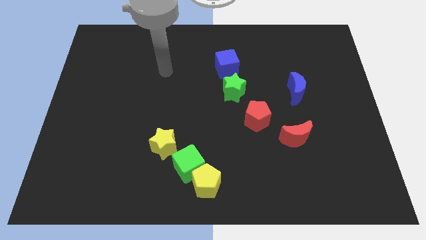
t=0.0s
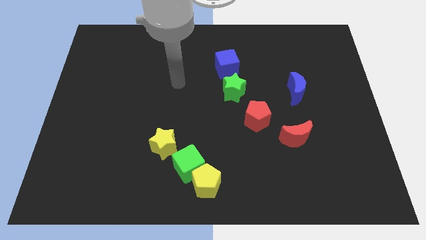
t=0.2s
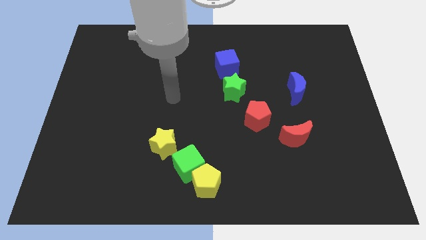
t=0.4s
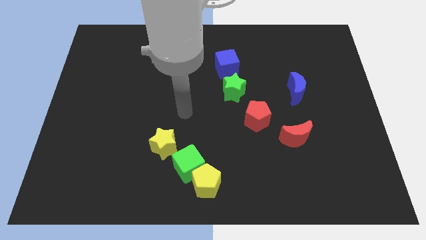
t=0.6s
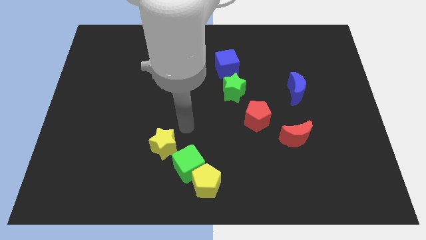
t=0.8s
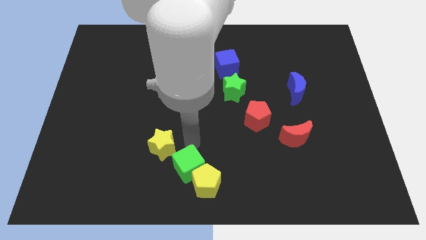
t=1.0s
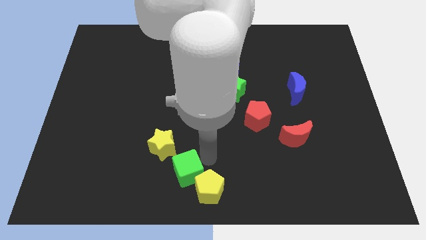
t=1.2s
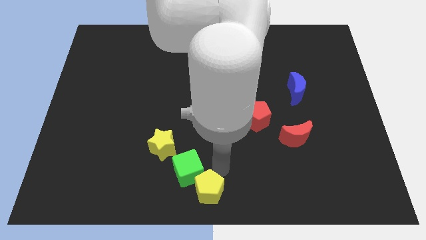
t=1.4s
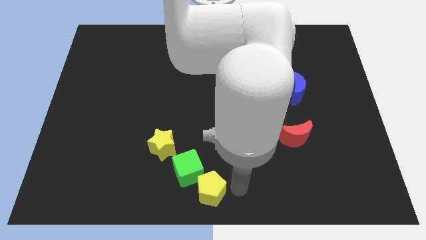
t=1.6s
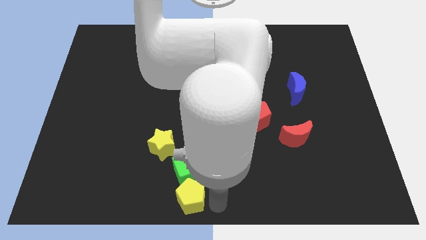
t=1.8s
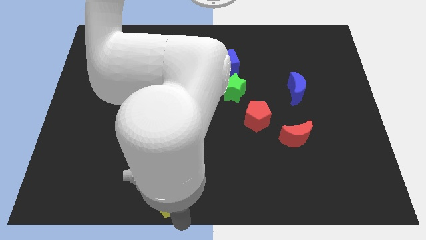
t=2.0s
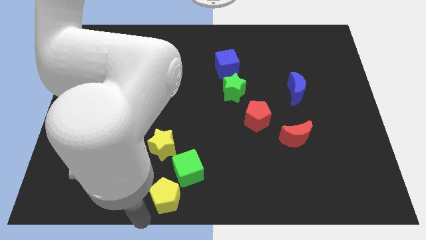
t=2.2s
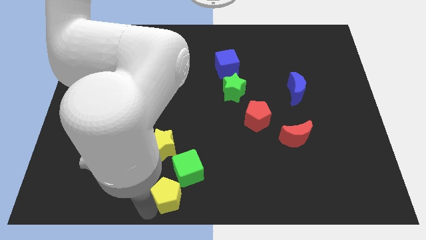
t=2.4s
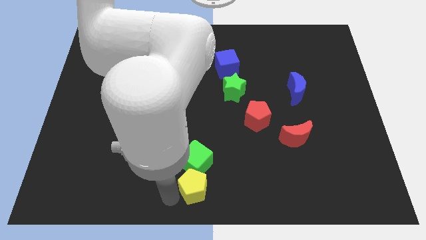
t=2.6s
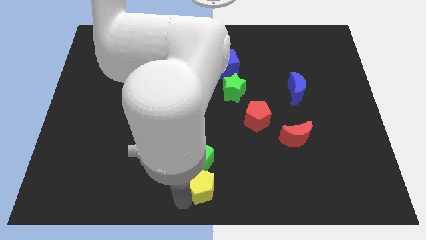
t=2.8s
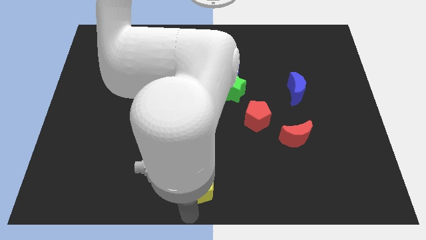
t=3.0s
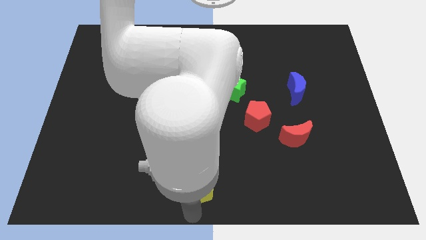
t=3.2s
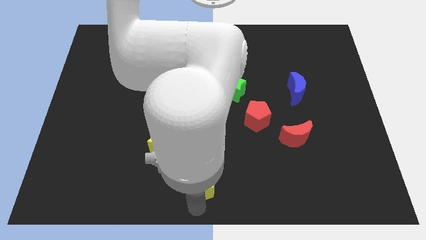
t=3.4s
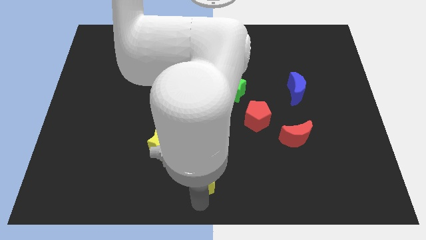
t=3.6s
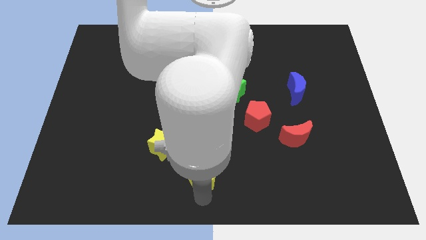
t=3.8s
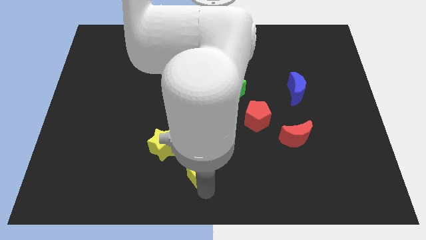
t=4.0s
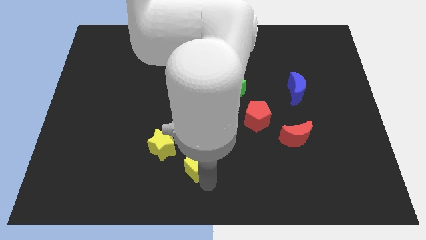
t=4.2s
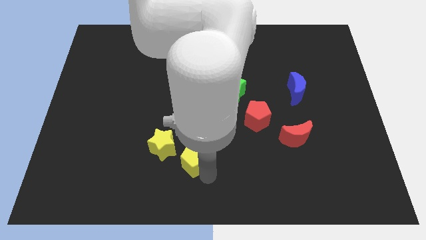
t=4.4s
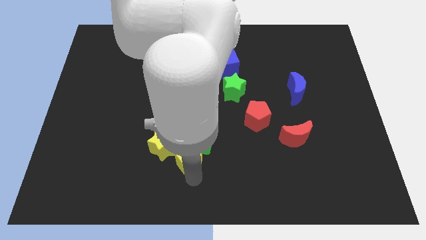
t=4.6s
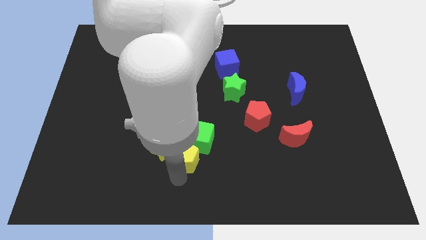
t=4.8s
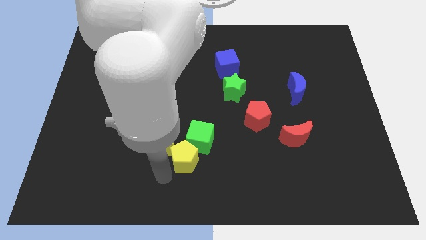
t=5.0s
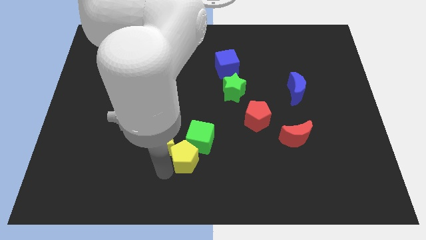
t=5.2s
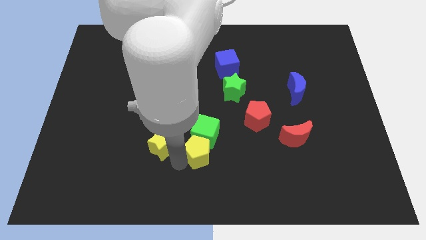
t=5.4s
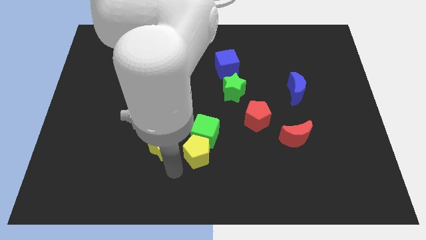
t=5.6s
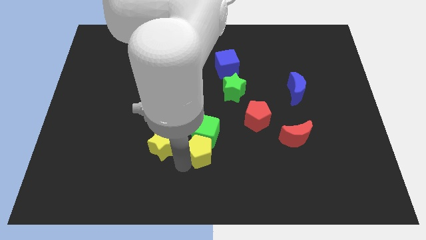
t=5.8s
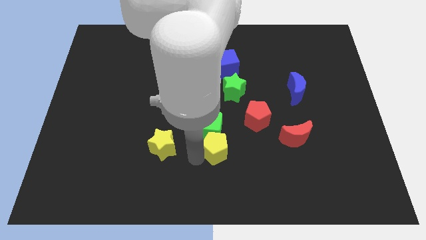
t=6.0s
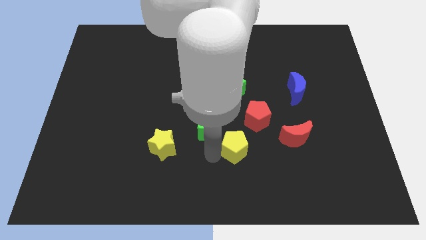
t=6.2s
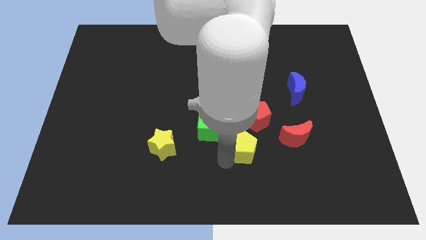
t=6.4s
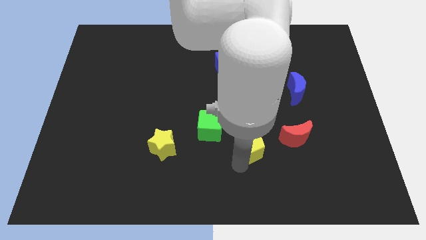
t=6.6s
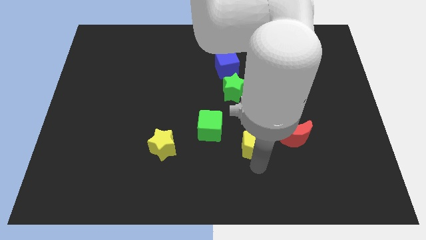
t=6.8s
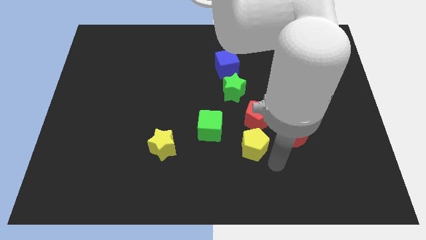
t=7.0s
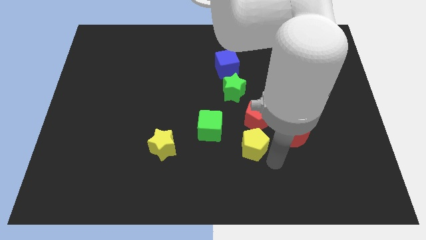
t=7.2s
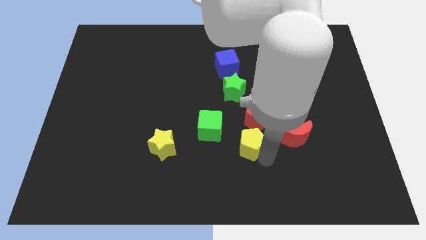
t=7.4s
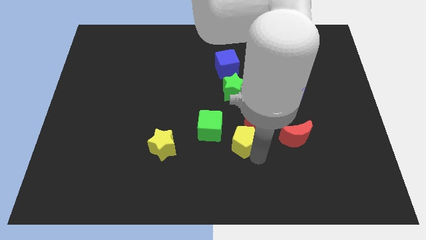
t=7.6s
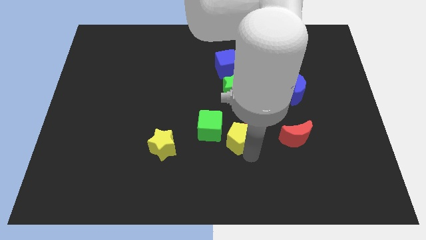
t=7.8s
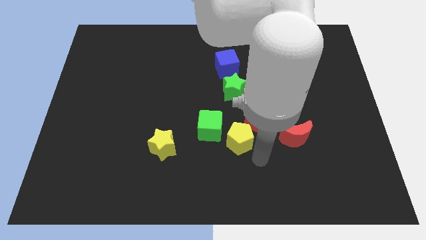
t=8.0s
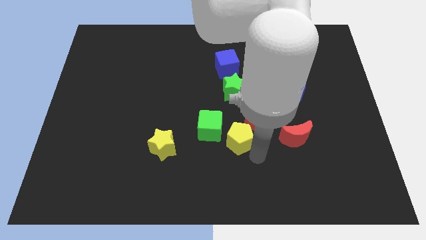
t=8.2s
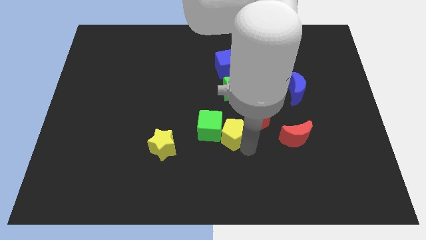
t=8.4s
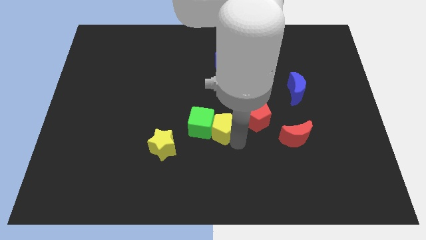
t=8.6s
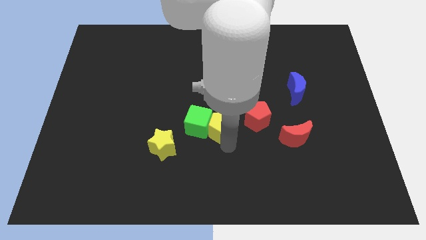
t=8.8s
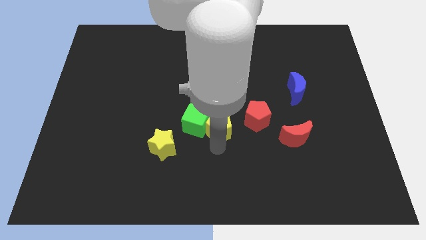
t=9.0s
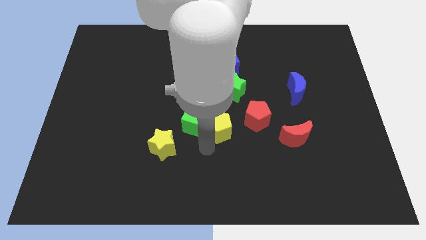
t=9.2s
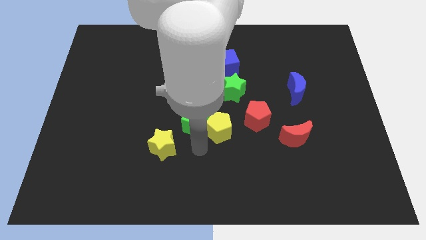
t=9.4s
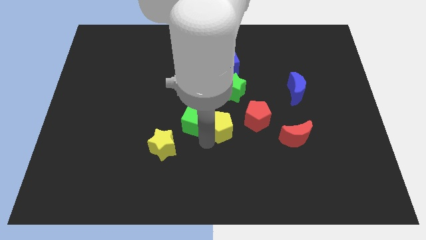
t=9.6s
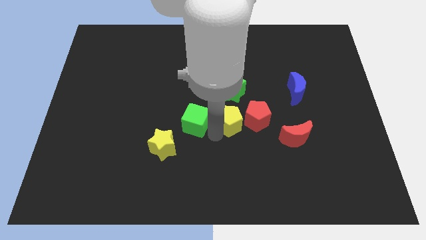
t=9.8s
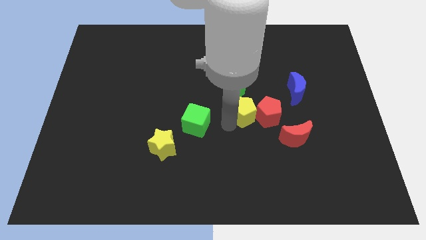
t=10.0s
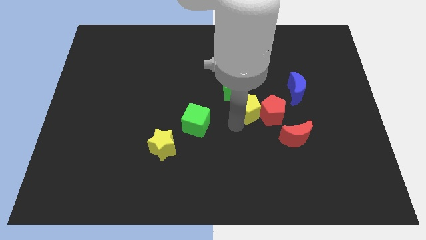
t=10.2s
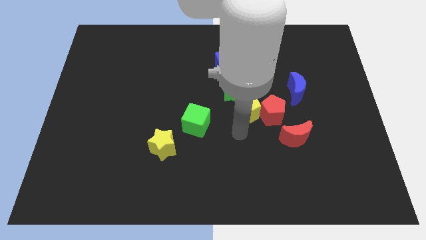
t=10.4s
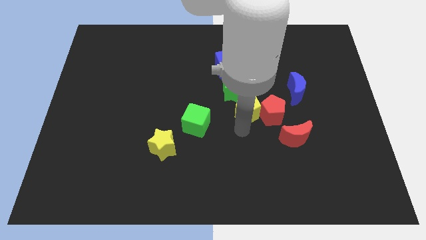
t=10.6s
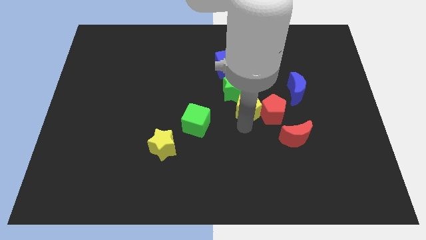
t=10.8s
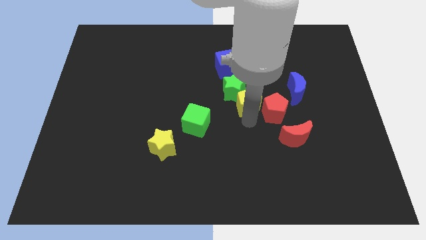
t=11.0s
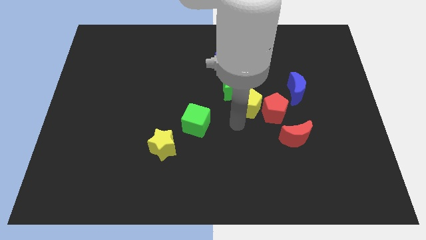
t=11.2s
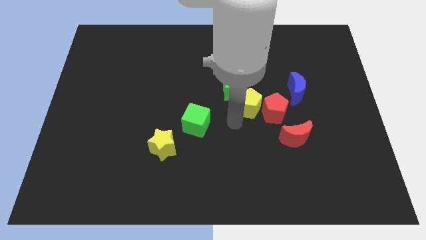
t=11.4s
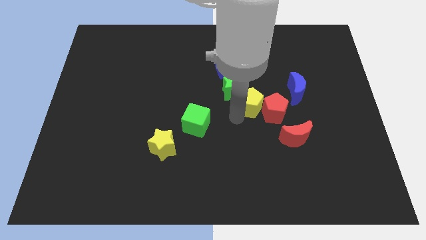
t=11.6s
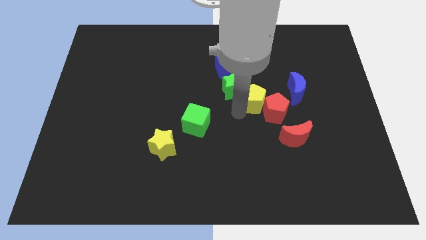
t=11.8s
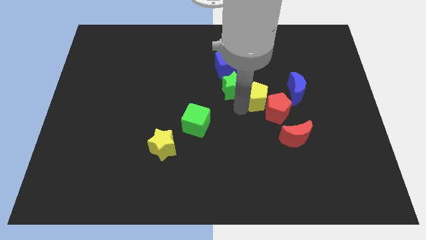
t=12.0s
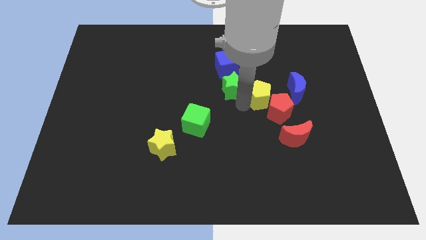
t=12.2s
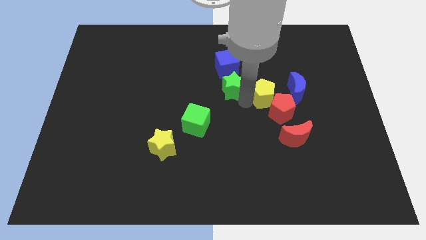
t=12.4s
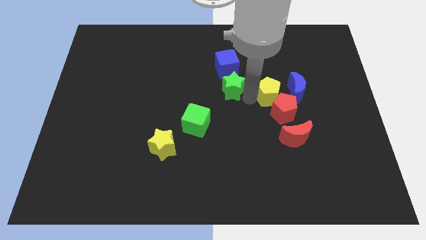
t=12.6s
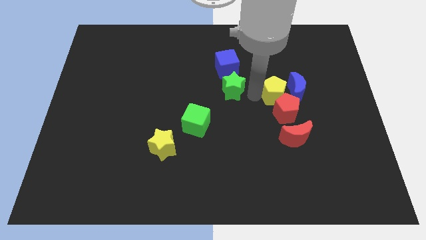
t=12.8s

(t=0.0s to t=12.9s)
slide the yellow pentagon diagonally up and to the left of the blue moon
